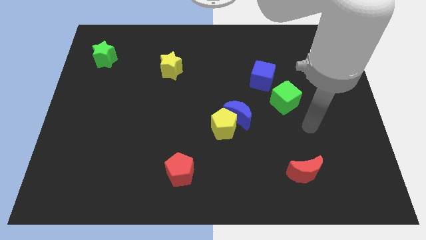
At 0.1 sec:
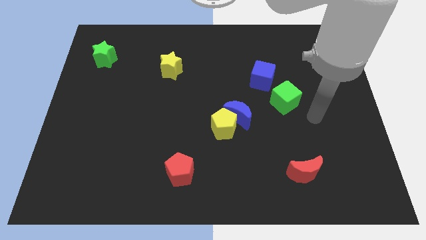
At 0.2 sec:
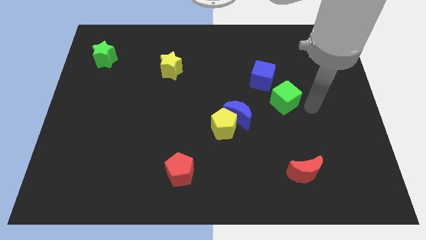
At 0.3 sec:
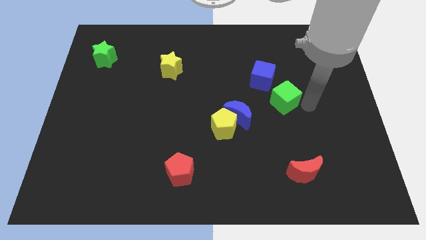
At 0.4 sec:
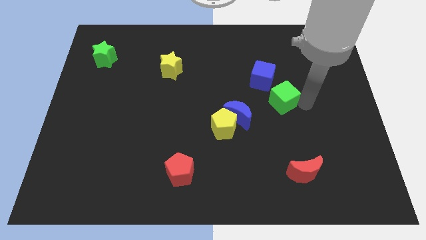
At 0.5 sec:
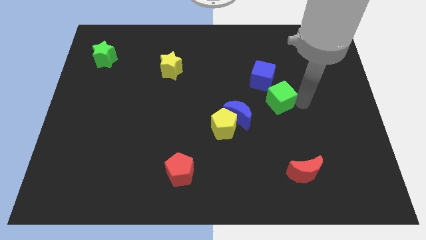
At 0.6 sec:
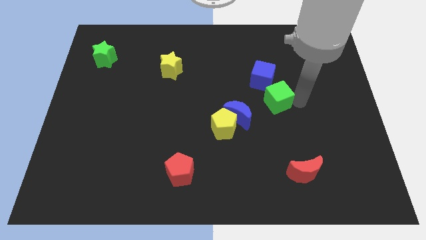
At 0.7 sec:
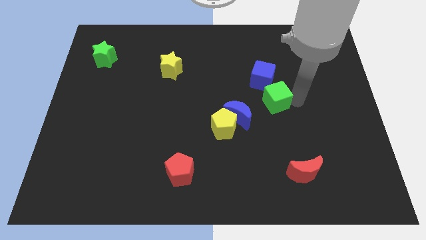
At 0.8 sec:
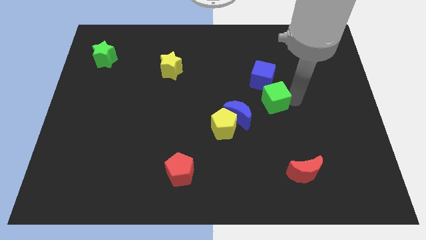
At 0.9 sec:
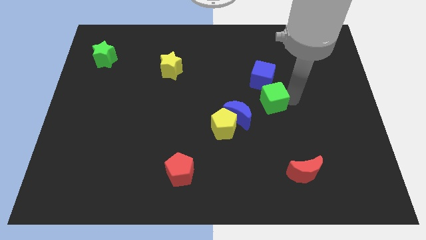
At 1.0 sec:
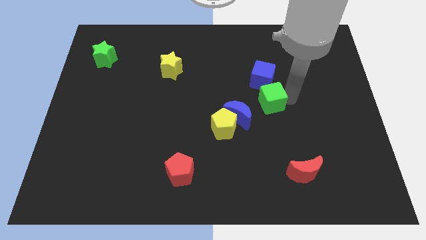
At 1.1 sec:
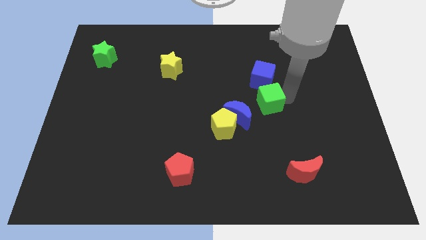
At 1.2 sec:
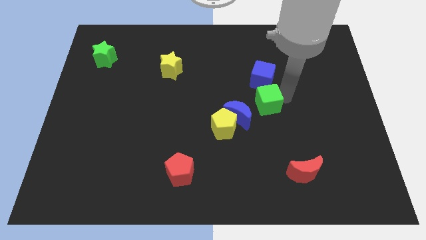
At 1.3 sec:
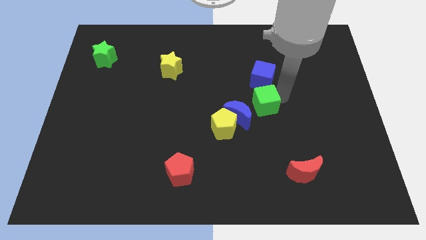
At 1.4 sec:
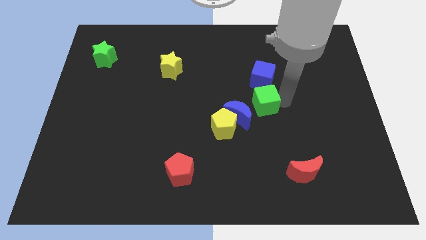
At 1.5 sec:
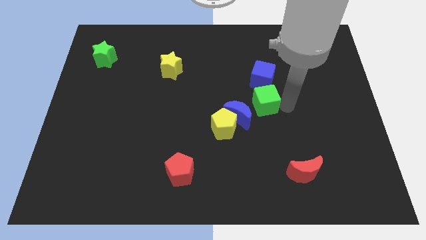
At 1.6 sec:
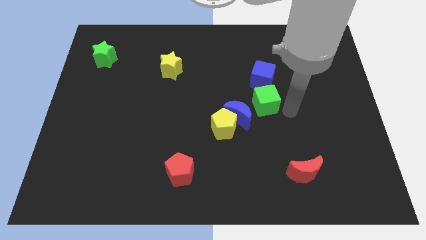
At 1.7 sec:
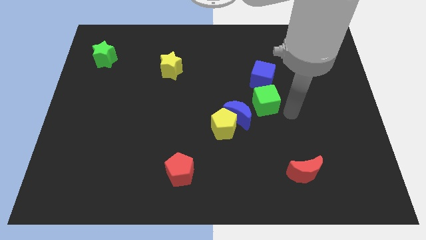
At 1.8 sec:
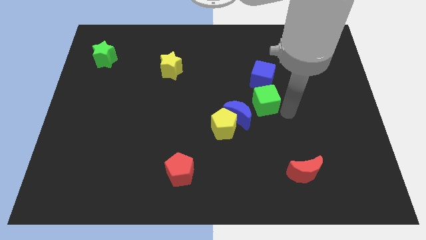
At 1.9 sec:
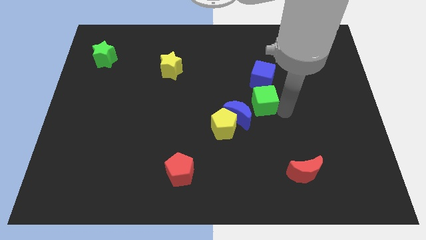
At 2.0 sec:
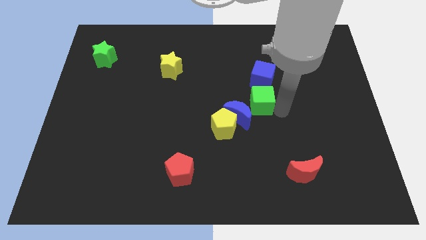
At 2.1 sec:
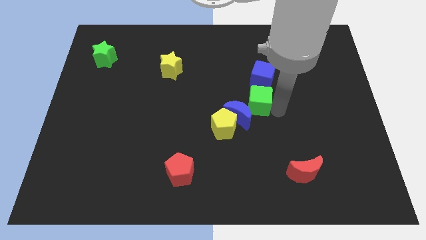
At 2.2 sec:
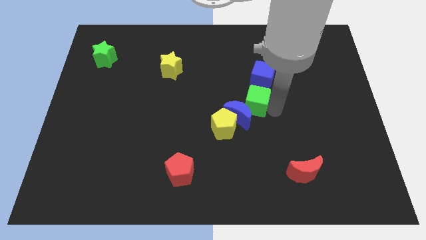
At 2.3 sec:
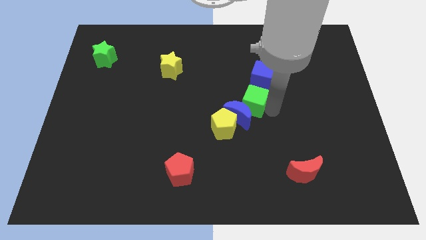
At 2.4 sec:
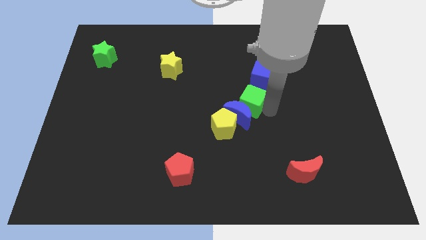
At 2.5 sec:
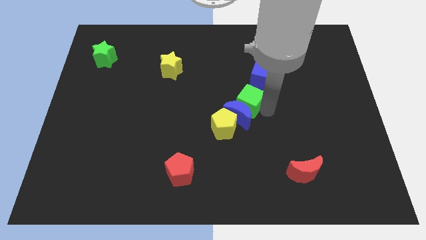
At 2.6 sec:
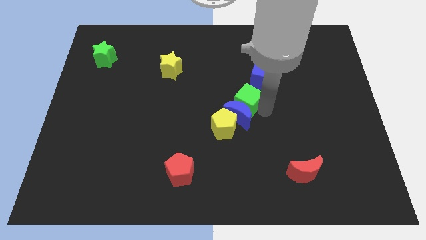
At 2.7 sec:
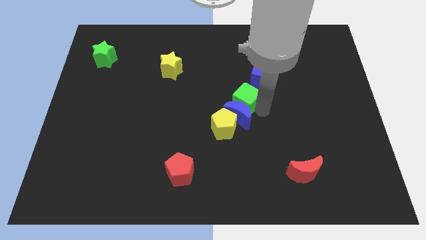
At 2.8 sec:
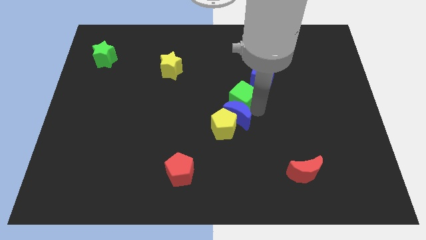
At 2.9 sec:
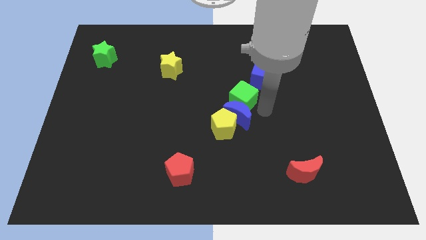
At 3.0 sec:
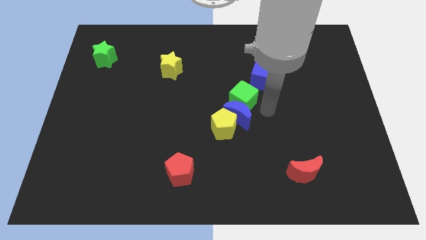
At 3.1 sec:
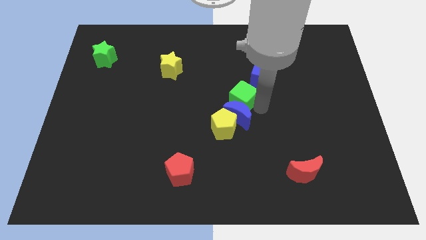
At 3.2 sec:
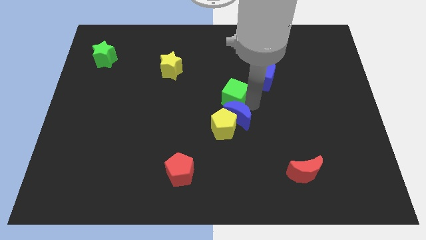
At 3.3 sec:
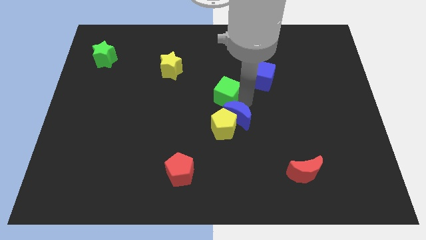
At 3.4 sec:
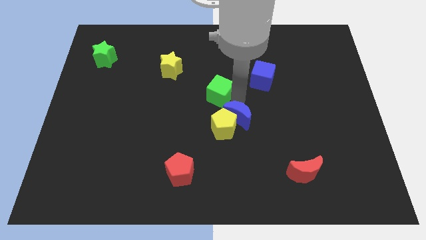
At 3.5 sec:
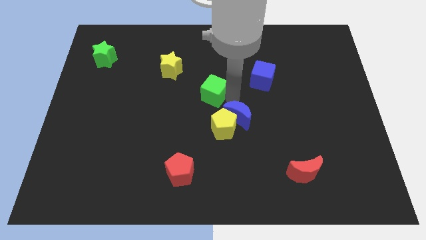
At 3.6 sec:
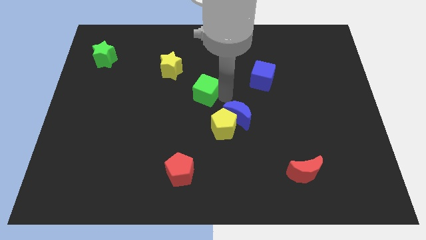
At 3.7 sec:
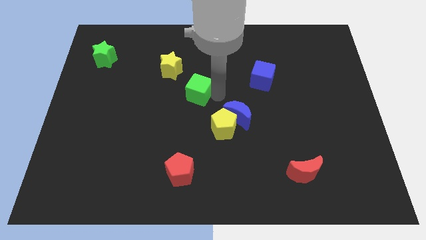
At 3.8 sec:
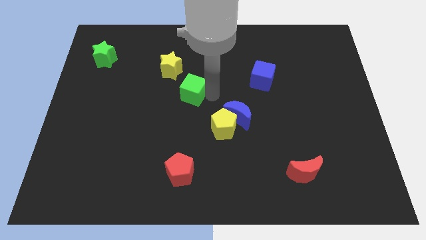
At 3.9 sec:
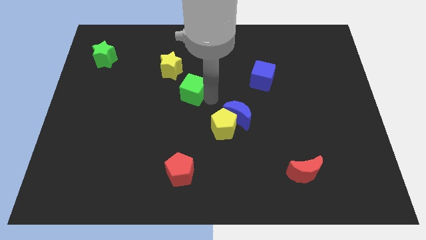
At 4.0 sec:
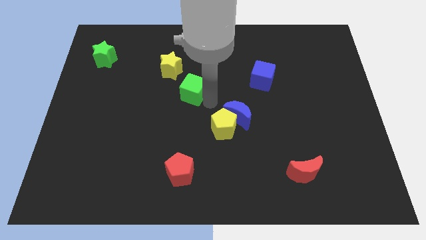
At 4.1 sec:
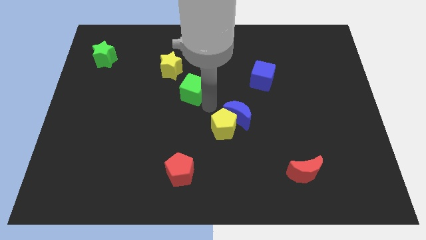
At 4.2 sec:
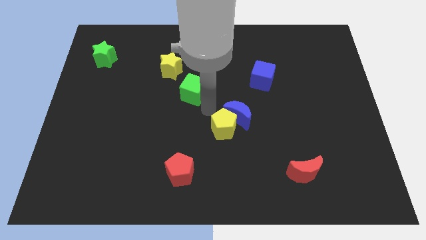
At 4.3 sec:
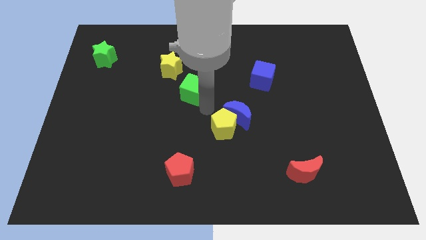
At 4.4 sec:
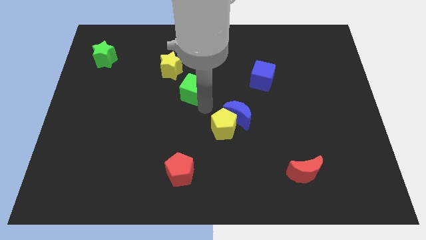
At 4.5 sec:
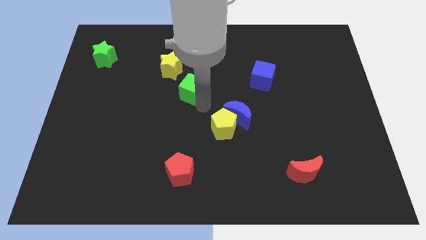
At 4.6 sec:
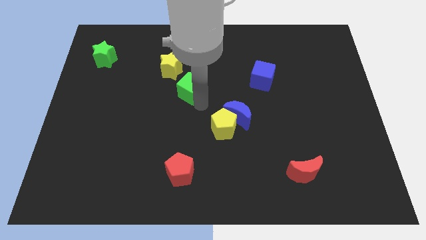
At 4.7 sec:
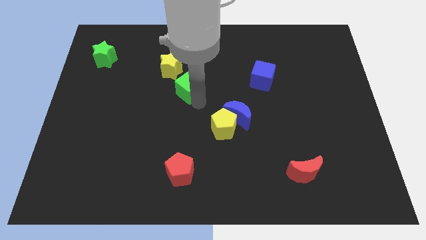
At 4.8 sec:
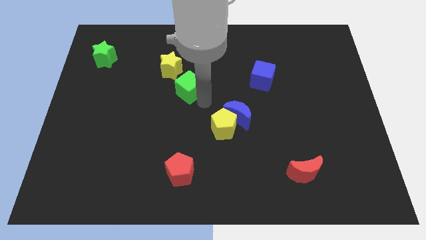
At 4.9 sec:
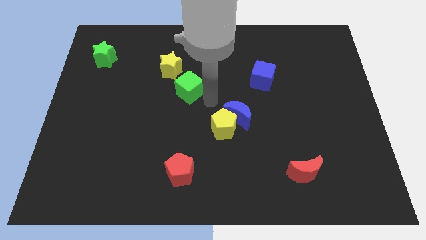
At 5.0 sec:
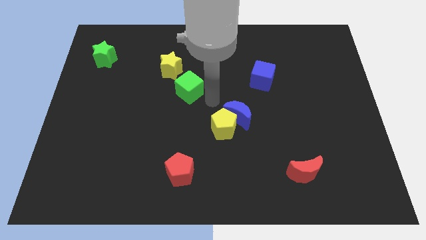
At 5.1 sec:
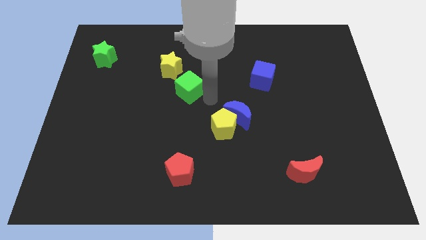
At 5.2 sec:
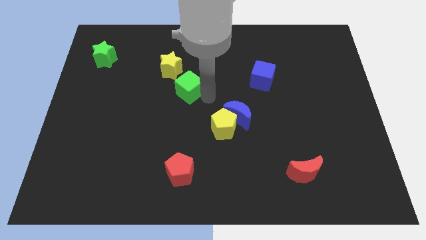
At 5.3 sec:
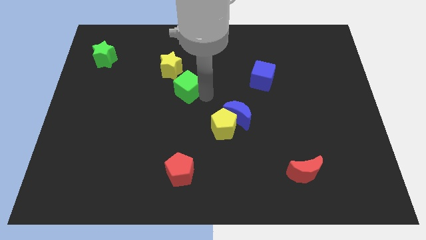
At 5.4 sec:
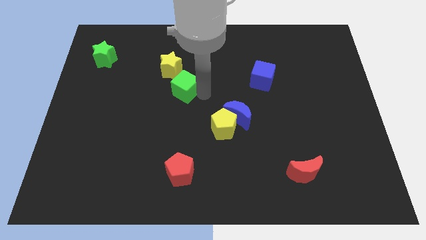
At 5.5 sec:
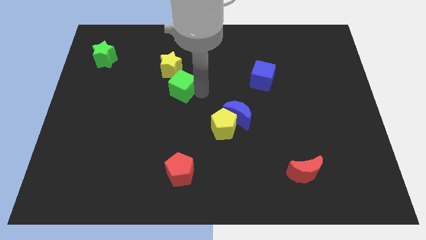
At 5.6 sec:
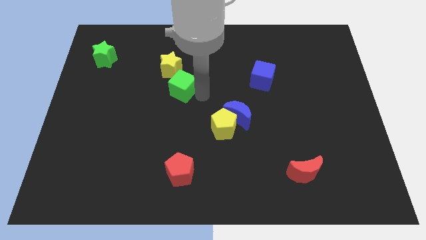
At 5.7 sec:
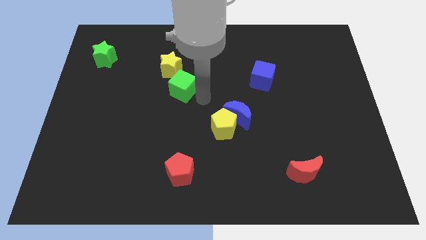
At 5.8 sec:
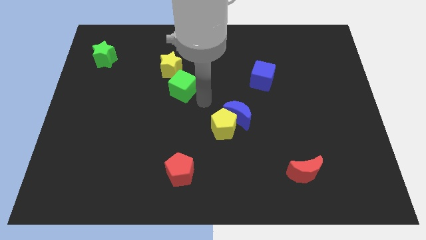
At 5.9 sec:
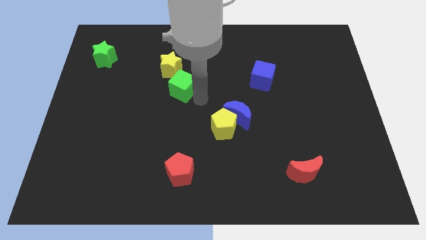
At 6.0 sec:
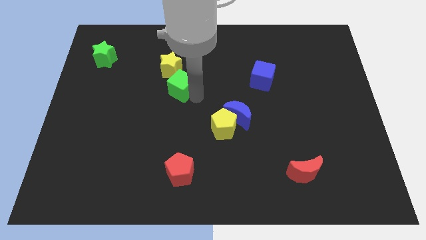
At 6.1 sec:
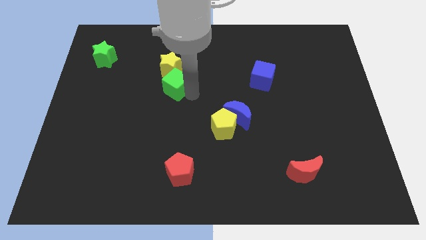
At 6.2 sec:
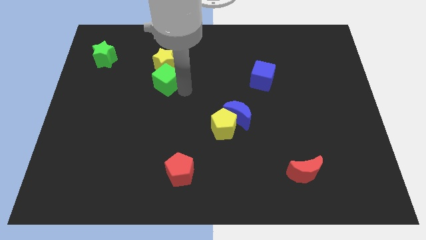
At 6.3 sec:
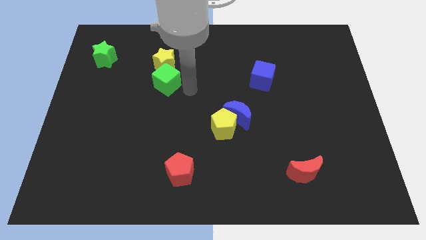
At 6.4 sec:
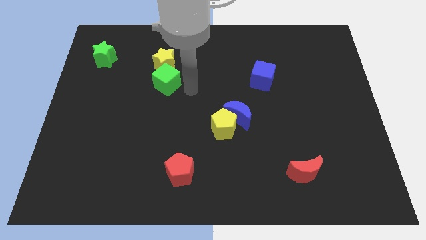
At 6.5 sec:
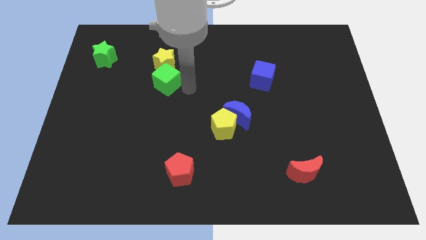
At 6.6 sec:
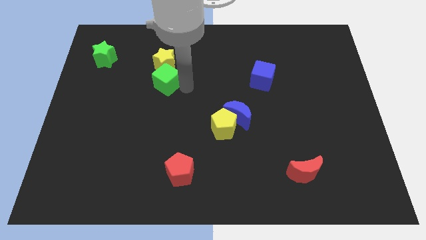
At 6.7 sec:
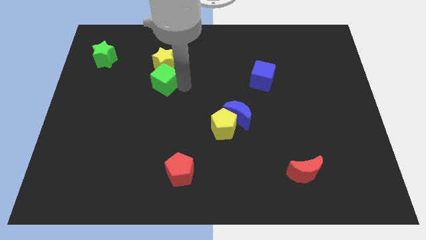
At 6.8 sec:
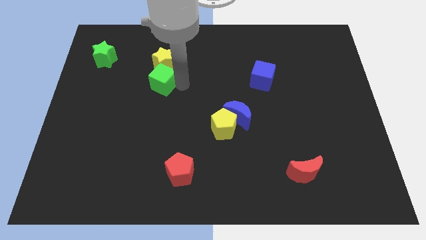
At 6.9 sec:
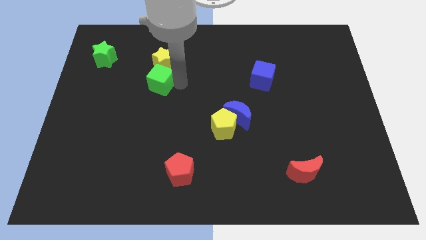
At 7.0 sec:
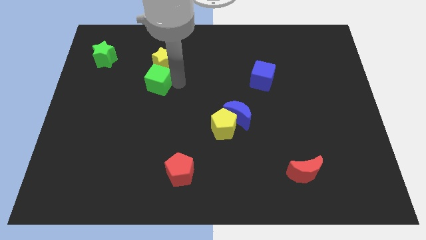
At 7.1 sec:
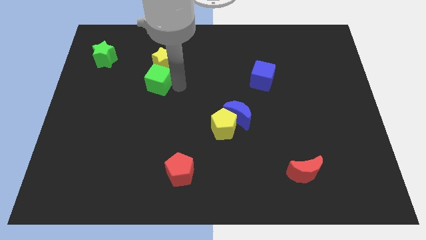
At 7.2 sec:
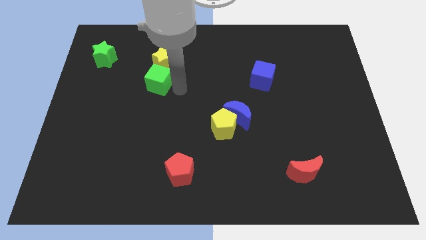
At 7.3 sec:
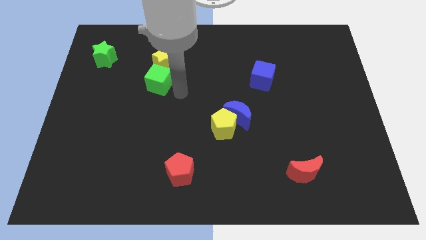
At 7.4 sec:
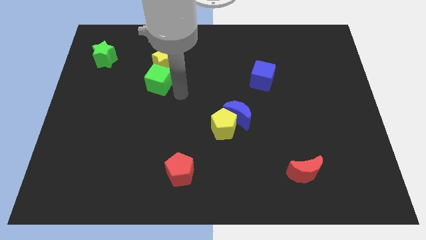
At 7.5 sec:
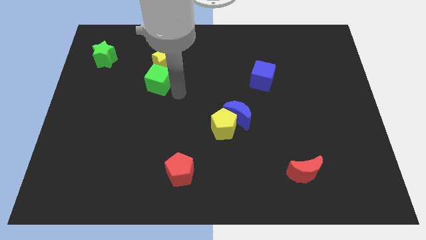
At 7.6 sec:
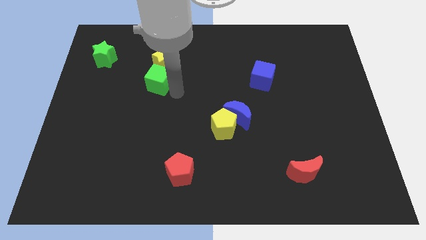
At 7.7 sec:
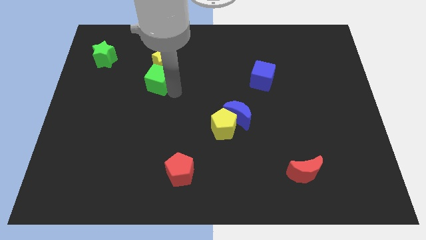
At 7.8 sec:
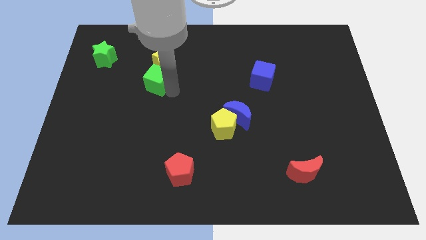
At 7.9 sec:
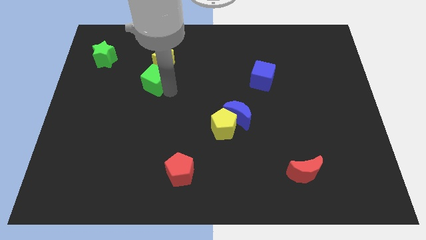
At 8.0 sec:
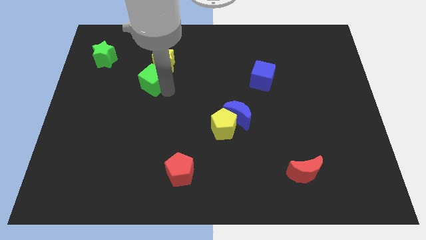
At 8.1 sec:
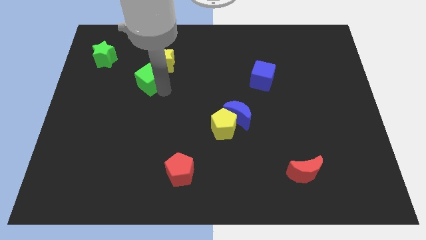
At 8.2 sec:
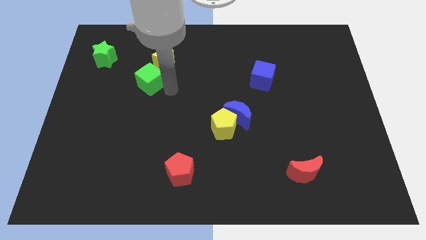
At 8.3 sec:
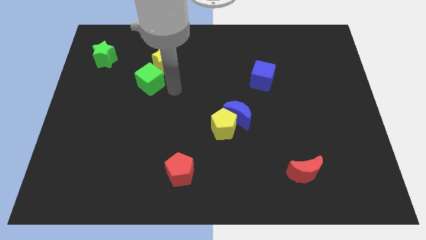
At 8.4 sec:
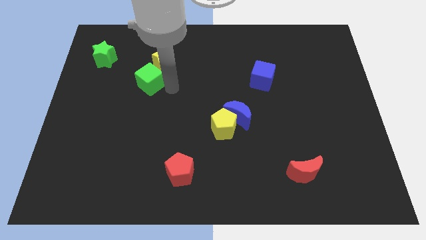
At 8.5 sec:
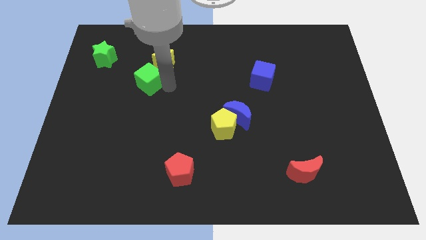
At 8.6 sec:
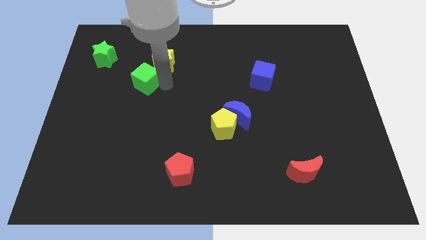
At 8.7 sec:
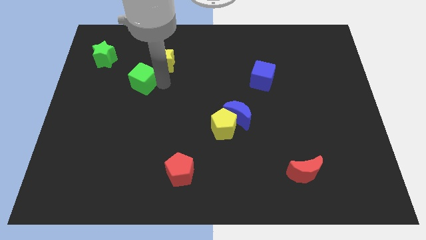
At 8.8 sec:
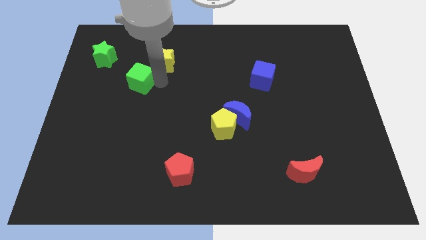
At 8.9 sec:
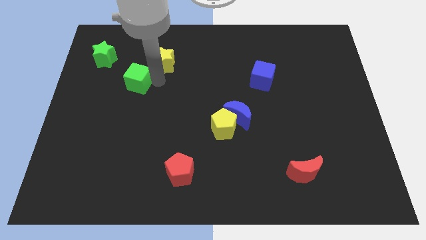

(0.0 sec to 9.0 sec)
put the green cube to the bottom right side of the green star
